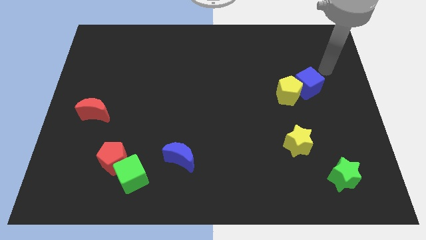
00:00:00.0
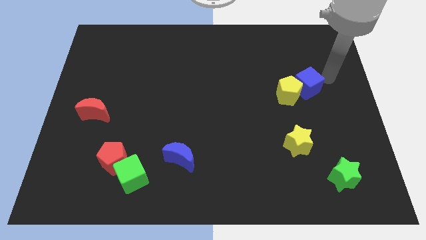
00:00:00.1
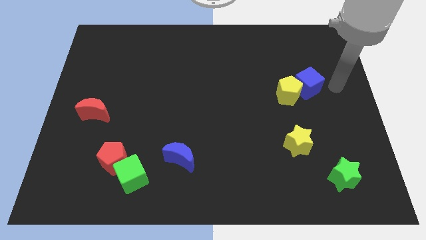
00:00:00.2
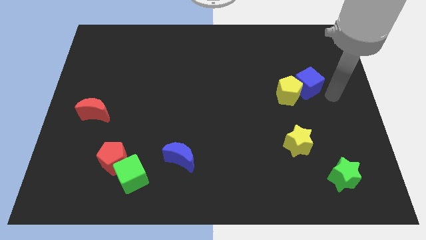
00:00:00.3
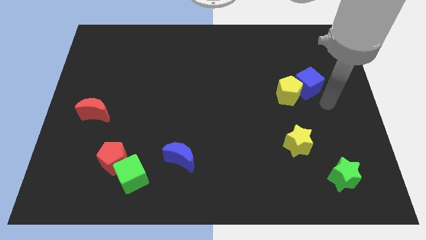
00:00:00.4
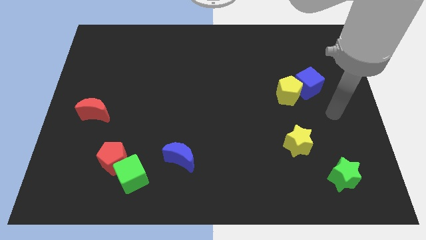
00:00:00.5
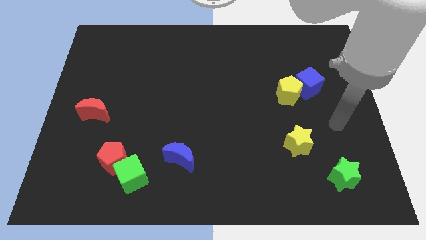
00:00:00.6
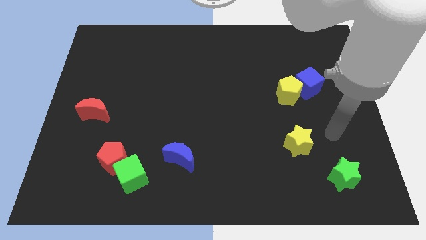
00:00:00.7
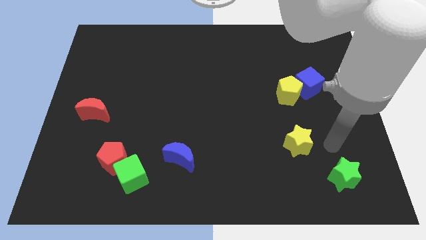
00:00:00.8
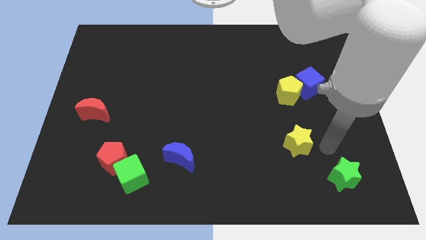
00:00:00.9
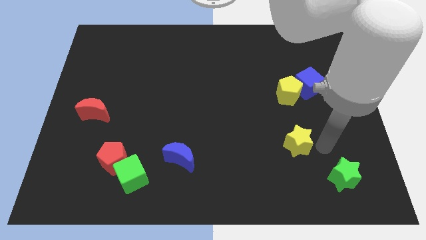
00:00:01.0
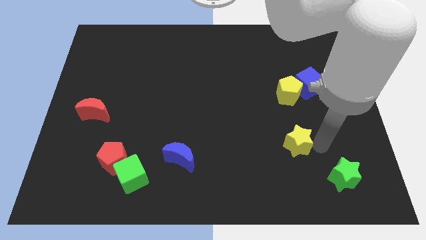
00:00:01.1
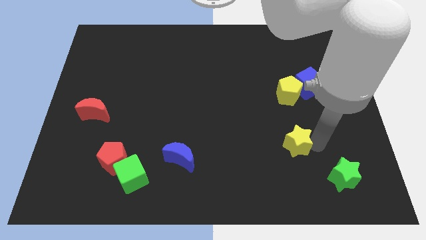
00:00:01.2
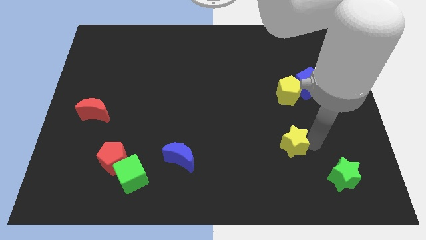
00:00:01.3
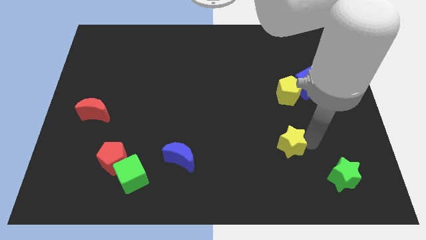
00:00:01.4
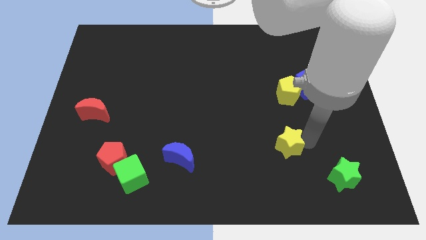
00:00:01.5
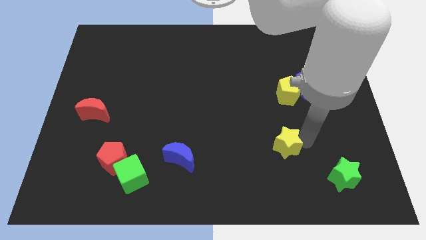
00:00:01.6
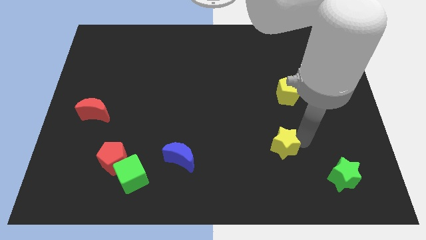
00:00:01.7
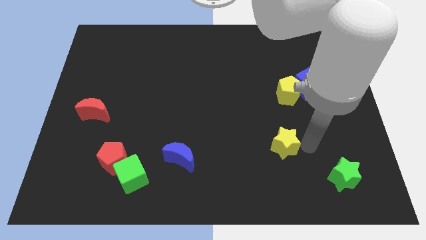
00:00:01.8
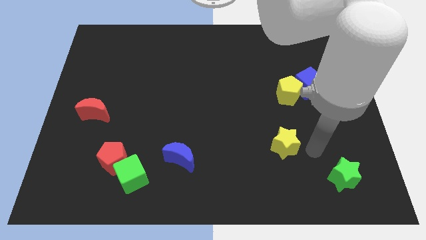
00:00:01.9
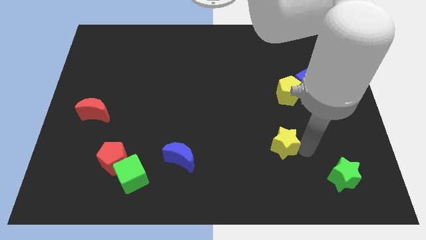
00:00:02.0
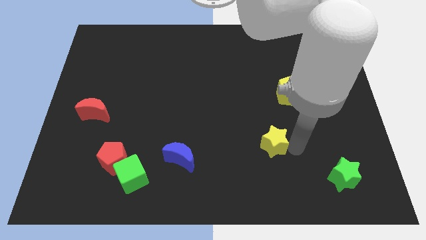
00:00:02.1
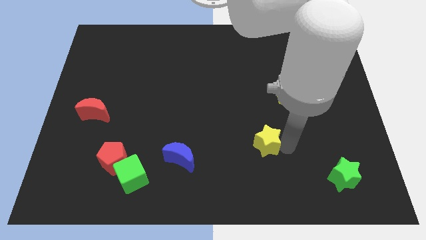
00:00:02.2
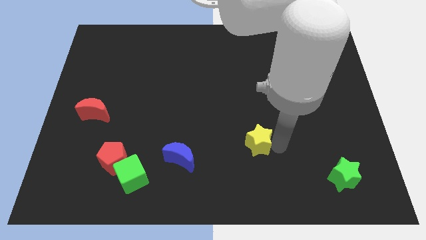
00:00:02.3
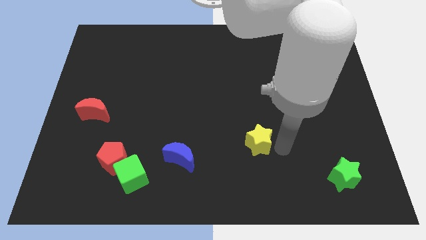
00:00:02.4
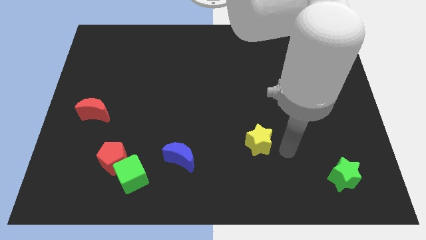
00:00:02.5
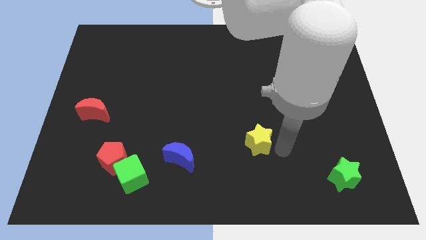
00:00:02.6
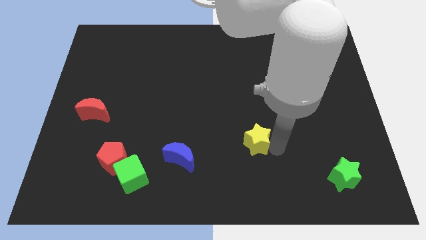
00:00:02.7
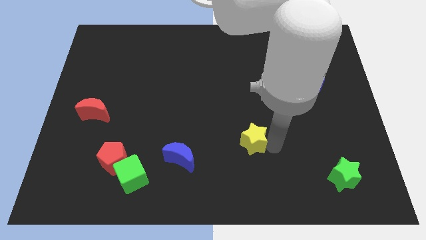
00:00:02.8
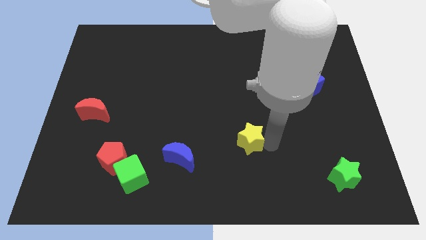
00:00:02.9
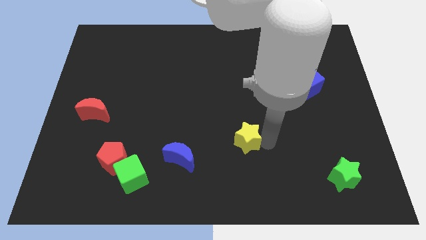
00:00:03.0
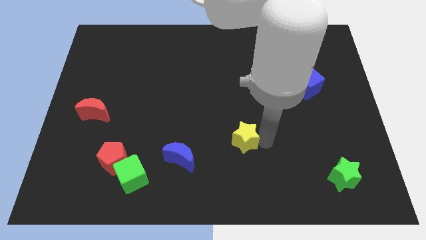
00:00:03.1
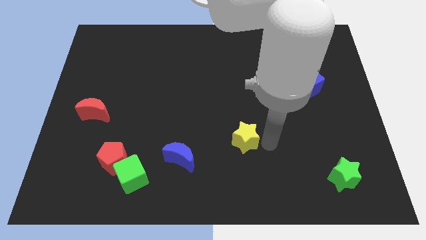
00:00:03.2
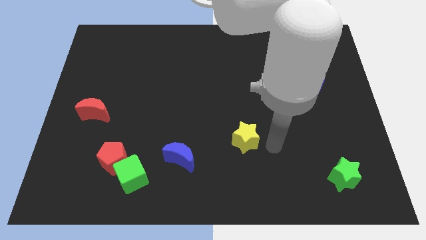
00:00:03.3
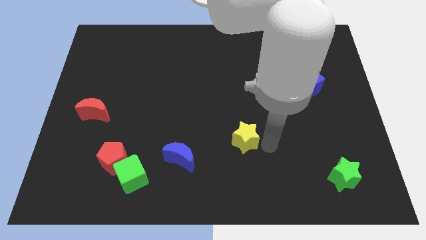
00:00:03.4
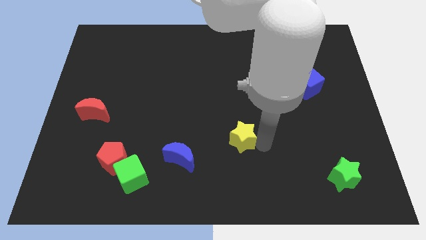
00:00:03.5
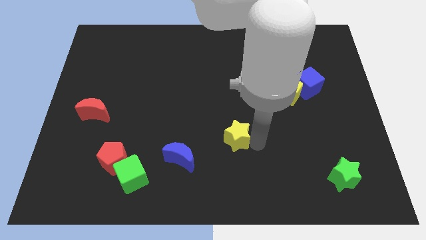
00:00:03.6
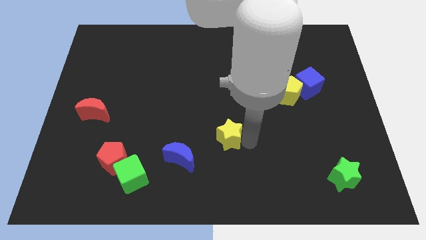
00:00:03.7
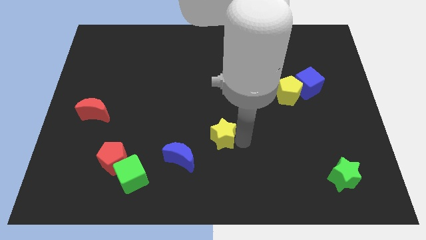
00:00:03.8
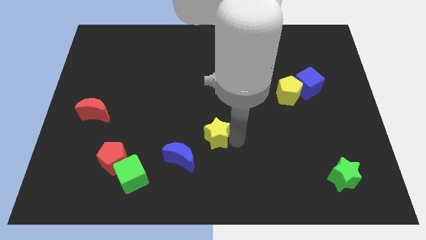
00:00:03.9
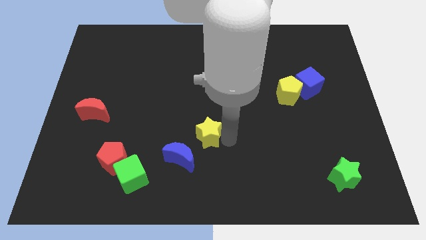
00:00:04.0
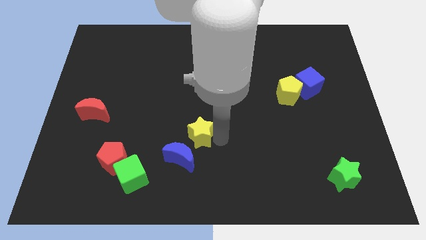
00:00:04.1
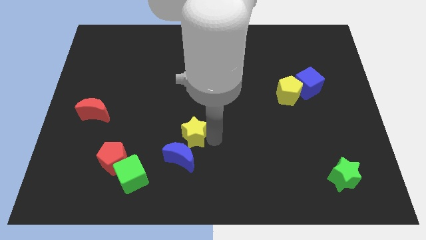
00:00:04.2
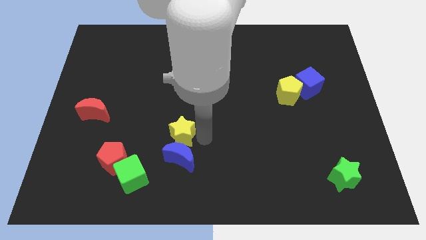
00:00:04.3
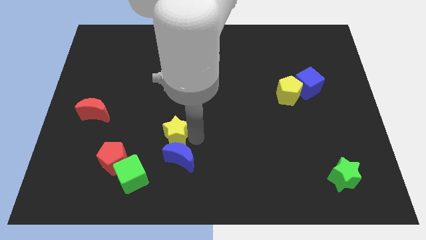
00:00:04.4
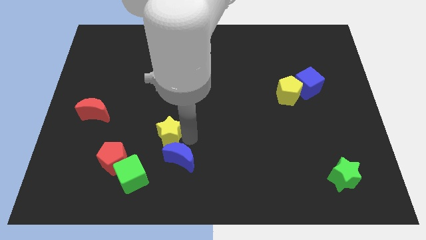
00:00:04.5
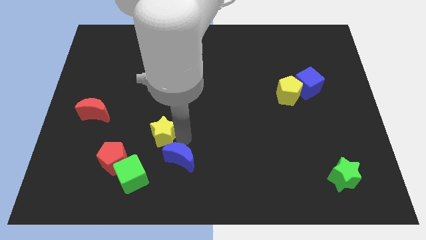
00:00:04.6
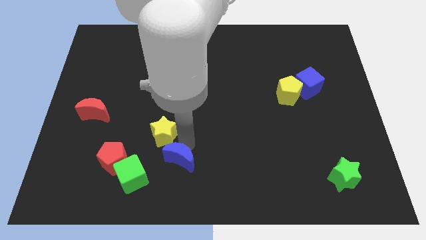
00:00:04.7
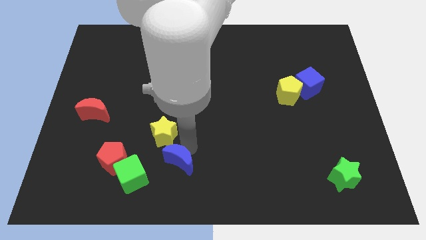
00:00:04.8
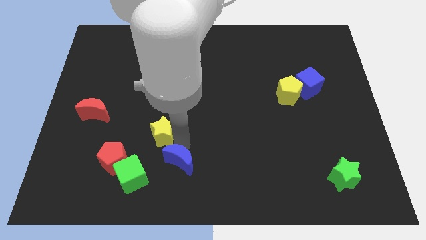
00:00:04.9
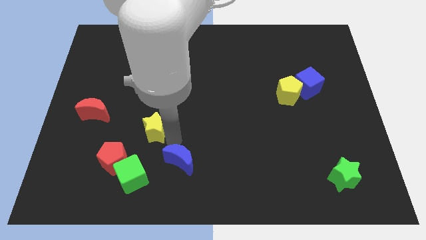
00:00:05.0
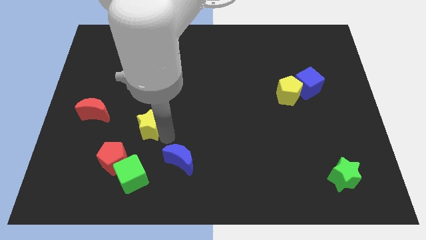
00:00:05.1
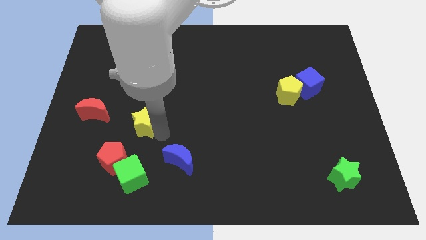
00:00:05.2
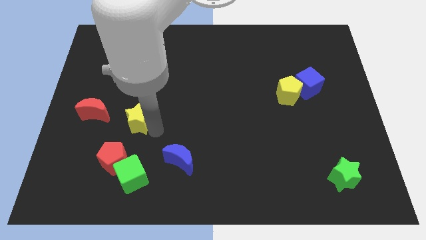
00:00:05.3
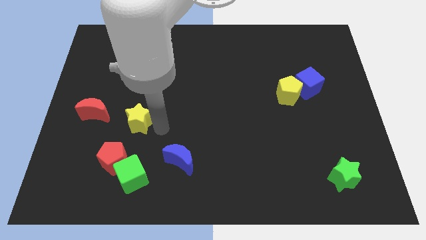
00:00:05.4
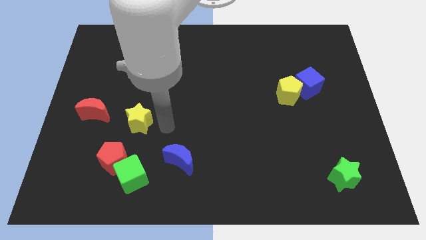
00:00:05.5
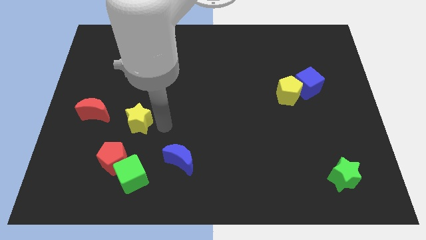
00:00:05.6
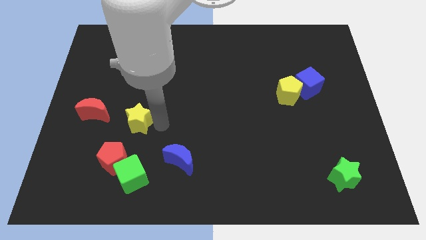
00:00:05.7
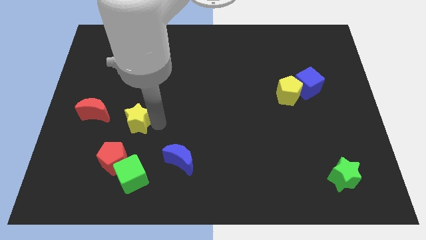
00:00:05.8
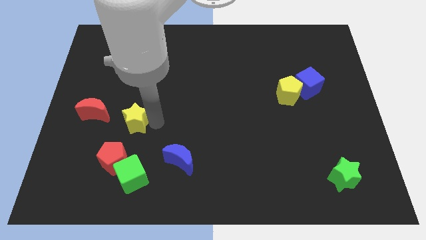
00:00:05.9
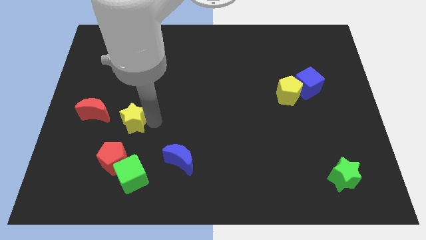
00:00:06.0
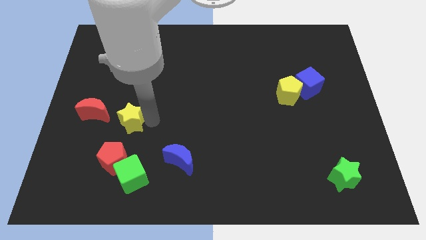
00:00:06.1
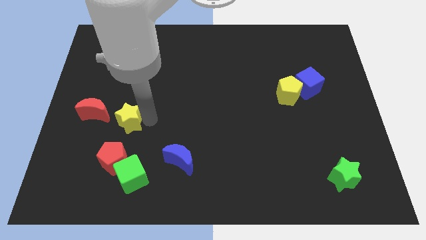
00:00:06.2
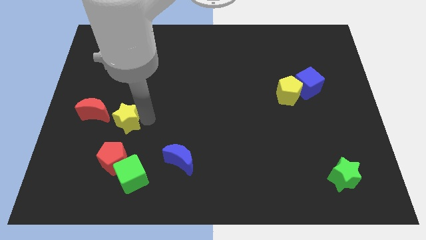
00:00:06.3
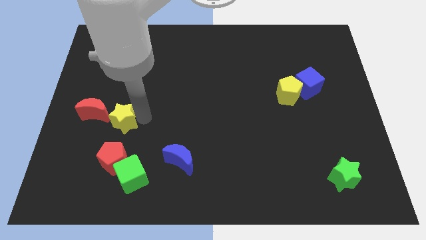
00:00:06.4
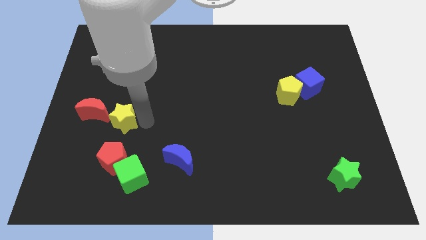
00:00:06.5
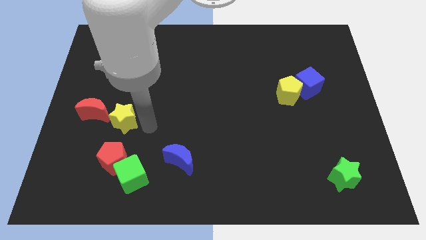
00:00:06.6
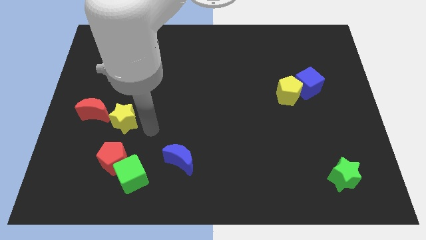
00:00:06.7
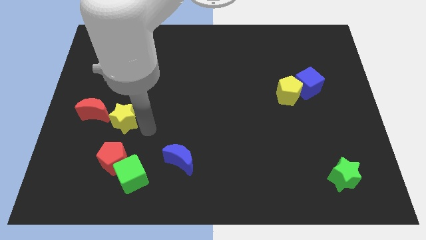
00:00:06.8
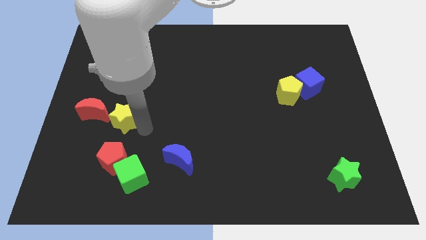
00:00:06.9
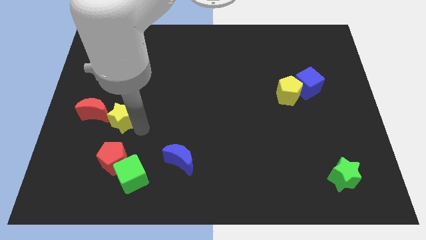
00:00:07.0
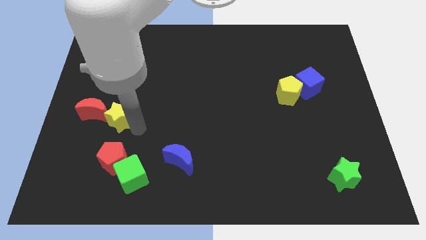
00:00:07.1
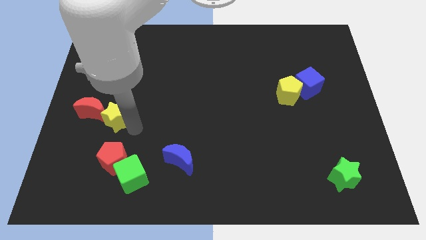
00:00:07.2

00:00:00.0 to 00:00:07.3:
slide the yellow star close to the red moon
